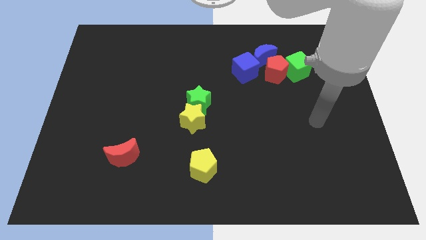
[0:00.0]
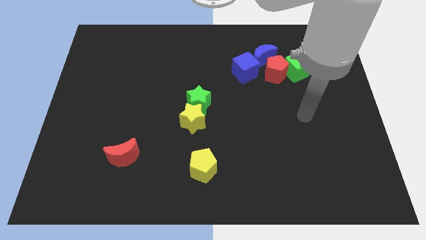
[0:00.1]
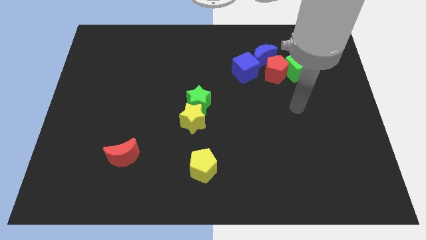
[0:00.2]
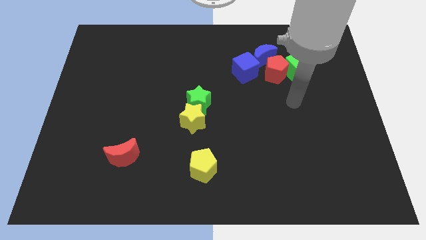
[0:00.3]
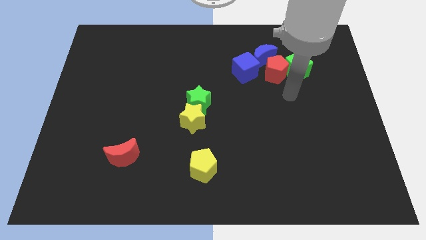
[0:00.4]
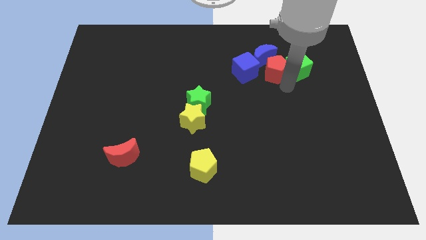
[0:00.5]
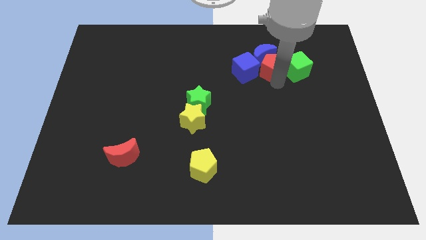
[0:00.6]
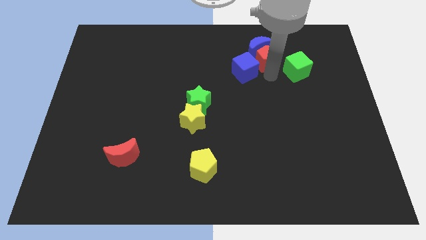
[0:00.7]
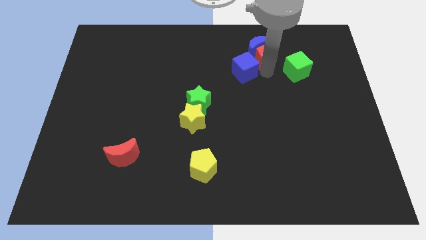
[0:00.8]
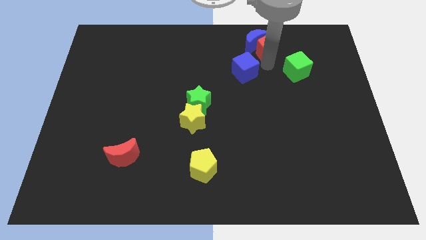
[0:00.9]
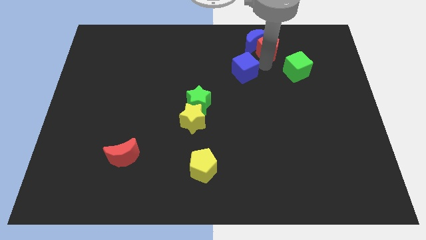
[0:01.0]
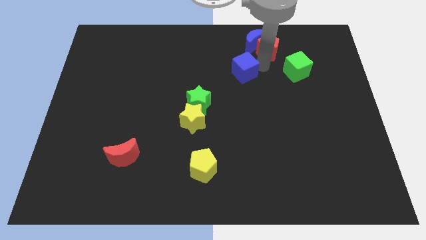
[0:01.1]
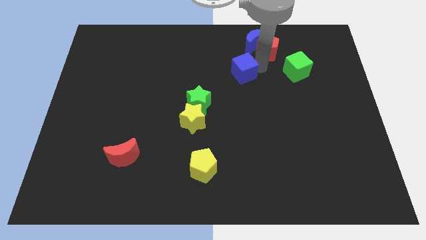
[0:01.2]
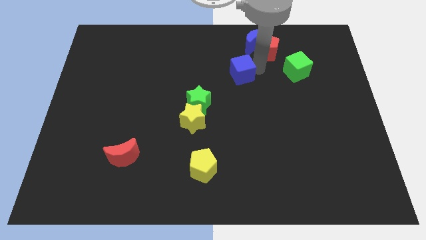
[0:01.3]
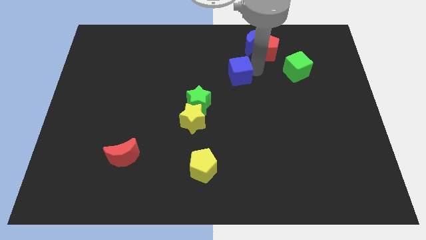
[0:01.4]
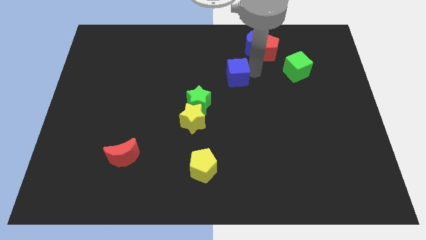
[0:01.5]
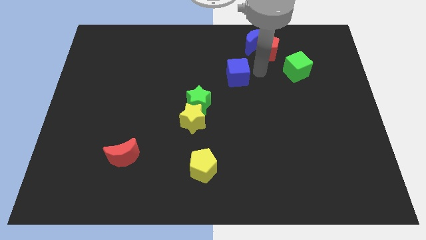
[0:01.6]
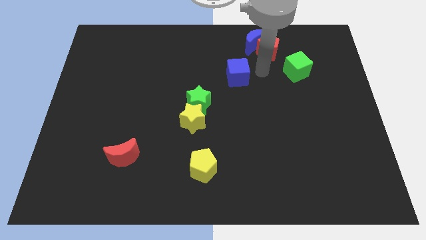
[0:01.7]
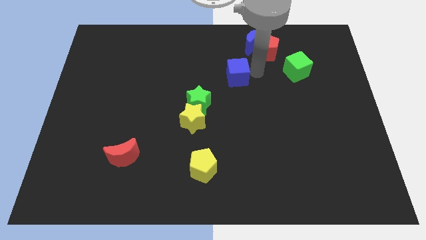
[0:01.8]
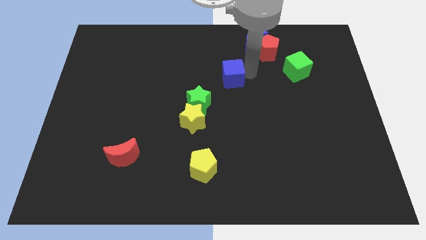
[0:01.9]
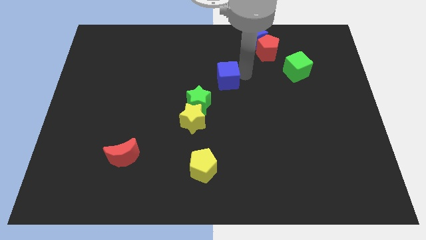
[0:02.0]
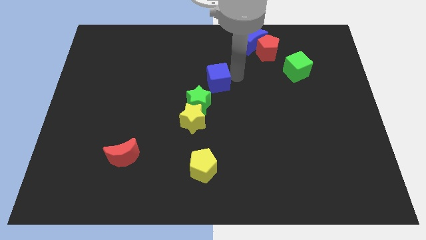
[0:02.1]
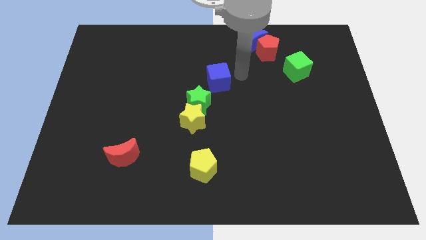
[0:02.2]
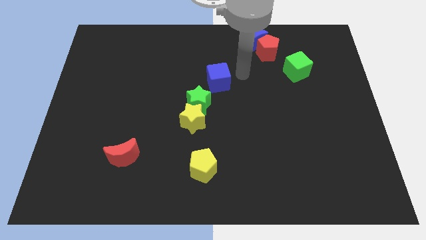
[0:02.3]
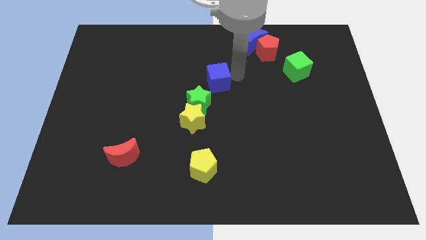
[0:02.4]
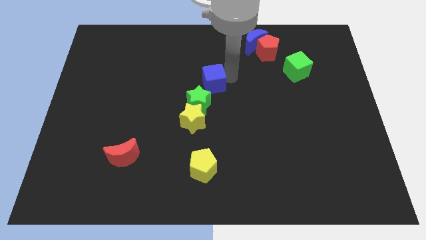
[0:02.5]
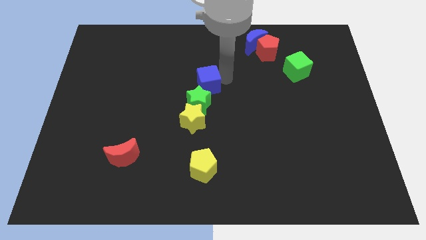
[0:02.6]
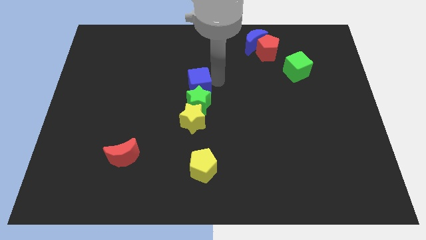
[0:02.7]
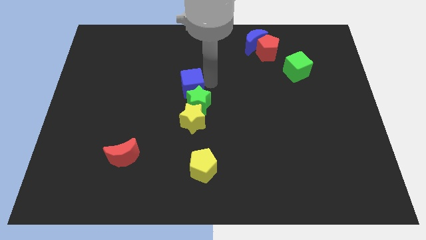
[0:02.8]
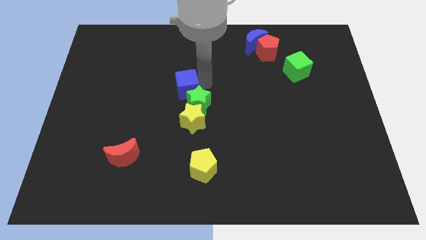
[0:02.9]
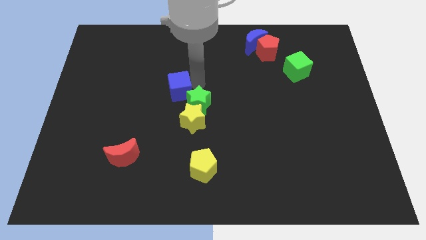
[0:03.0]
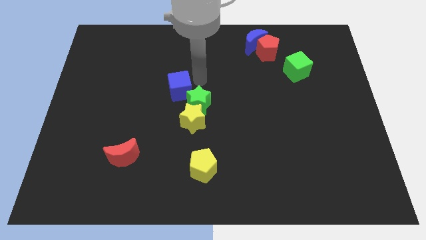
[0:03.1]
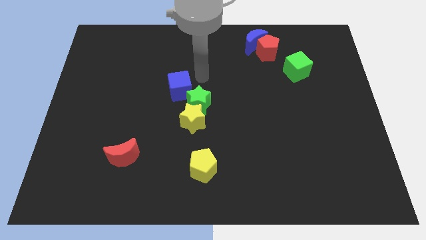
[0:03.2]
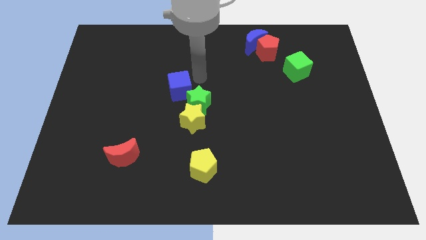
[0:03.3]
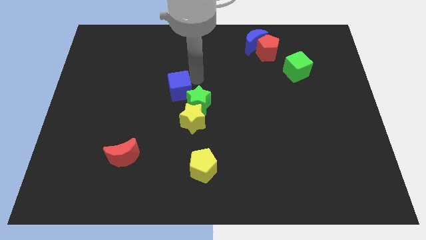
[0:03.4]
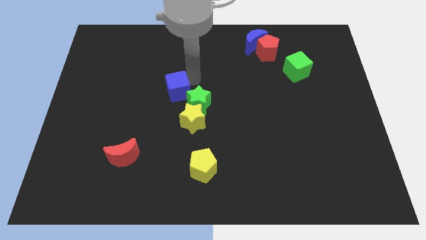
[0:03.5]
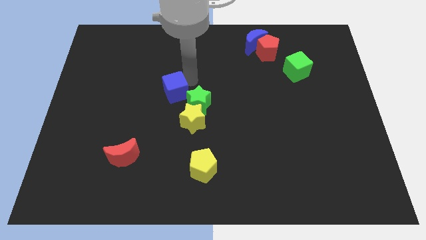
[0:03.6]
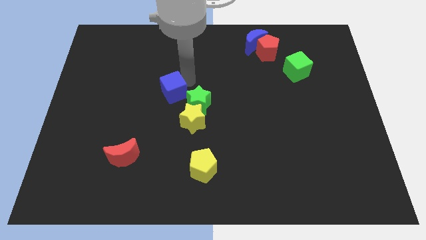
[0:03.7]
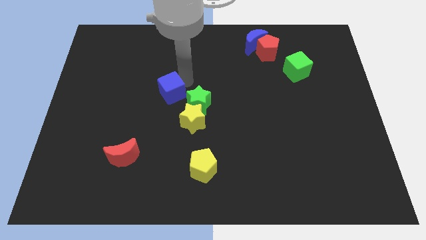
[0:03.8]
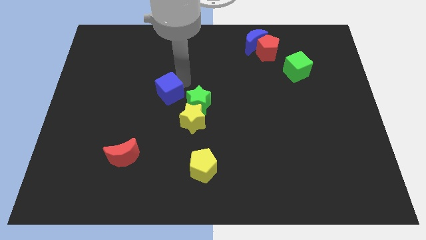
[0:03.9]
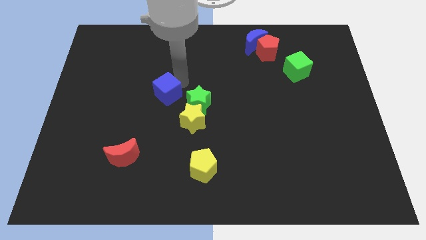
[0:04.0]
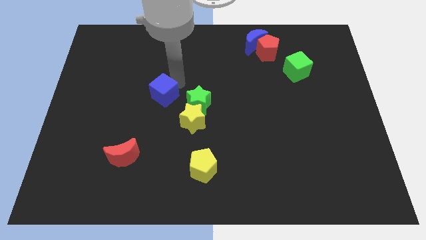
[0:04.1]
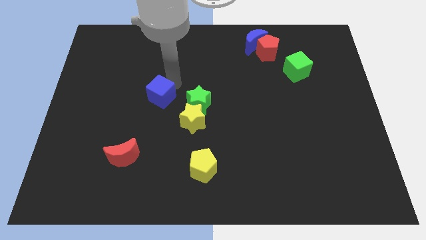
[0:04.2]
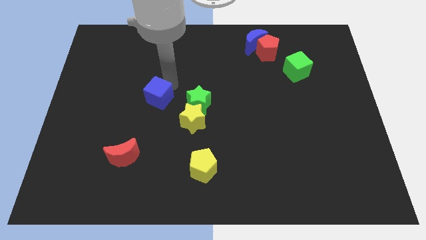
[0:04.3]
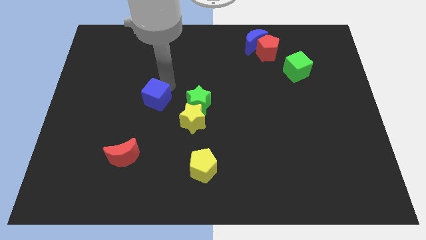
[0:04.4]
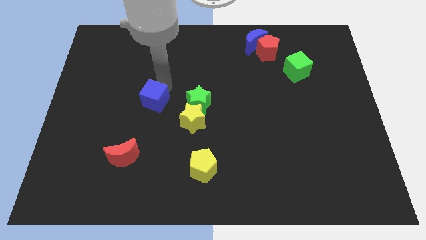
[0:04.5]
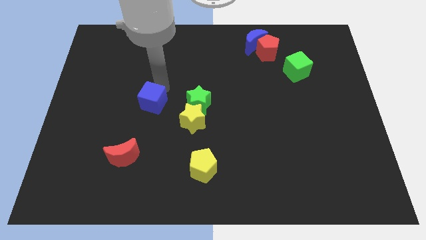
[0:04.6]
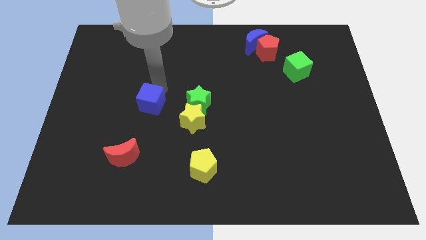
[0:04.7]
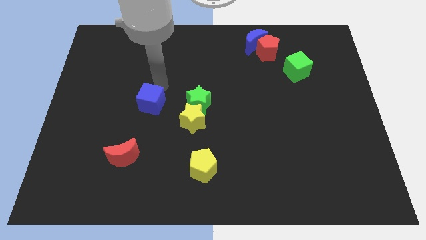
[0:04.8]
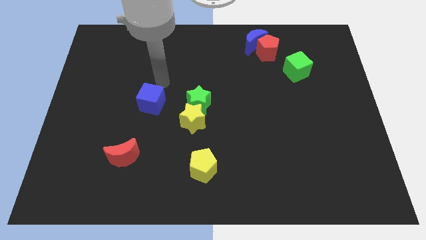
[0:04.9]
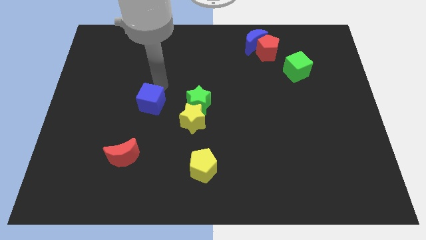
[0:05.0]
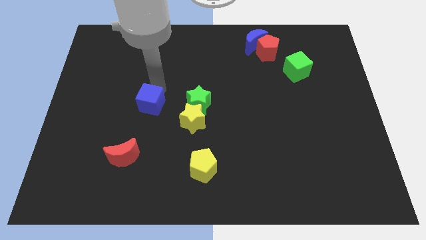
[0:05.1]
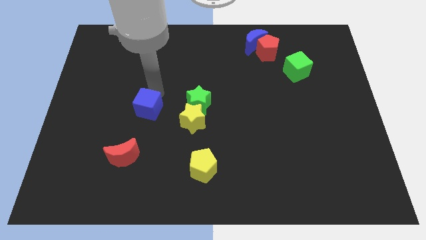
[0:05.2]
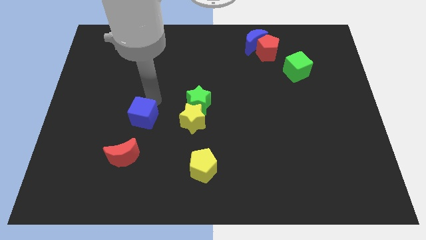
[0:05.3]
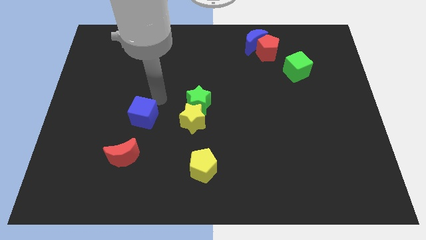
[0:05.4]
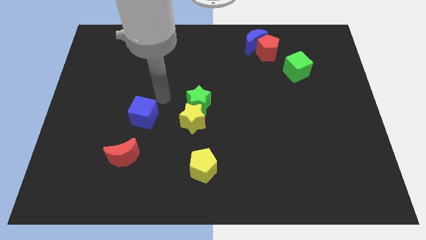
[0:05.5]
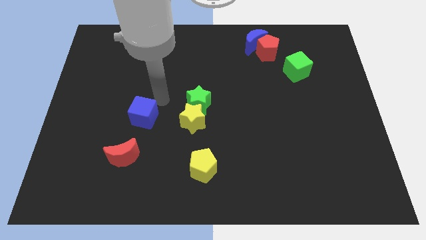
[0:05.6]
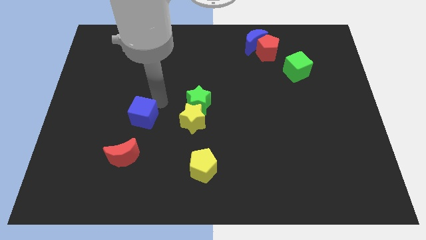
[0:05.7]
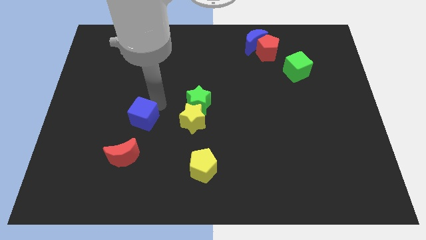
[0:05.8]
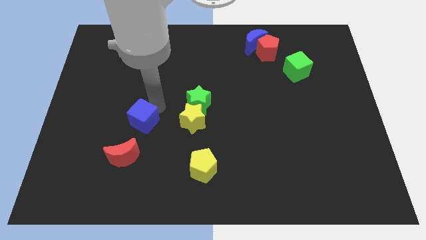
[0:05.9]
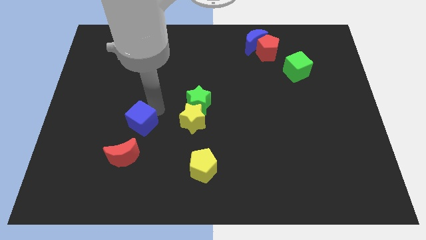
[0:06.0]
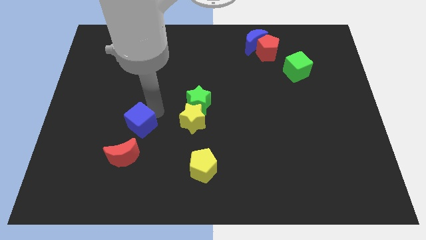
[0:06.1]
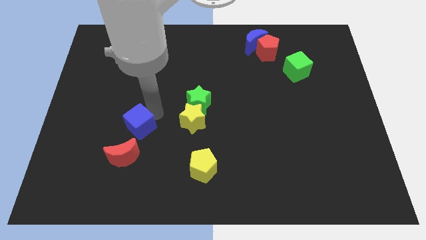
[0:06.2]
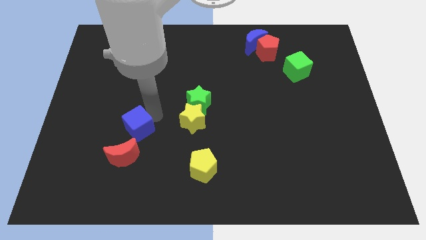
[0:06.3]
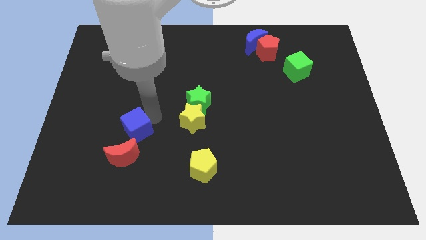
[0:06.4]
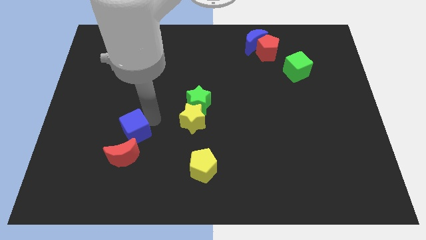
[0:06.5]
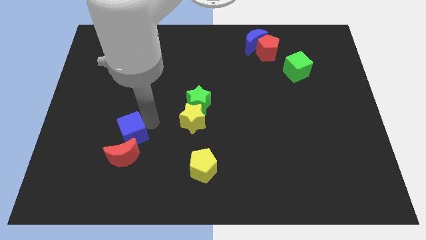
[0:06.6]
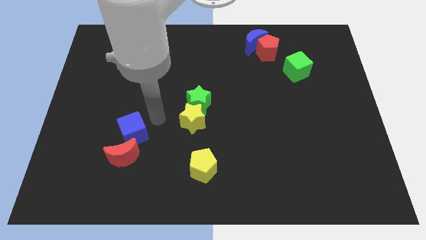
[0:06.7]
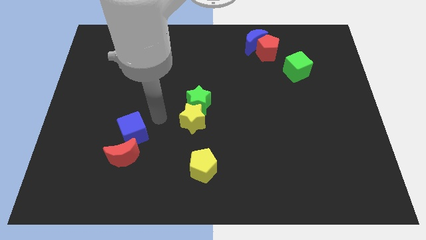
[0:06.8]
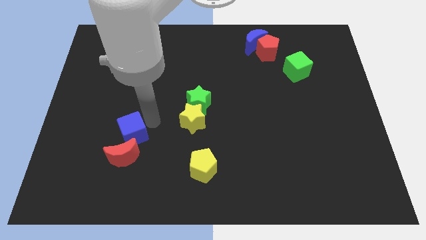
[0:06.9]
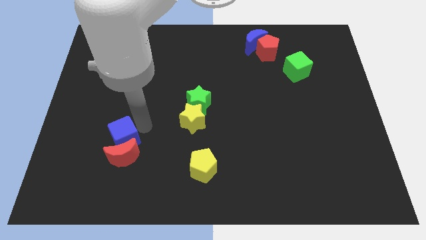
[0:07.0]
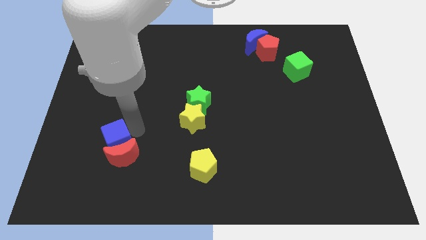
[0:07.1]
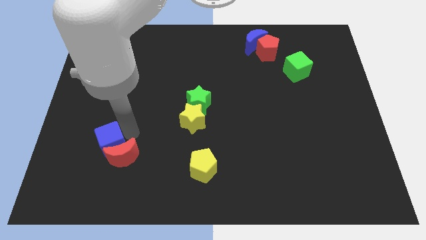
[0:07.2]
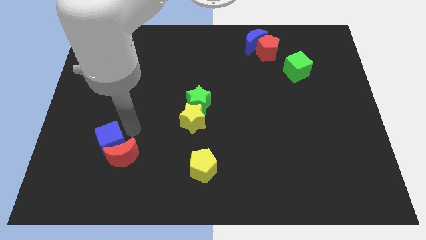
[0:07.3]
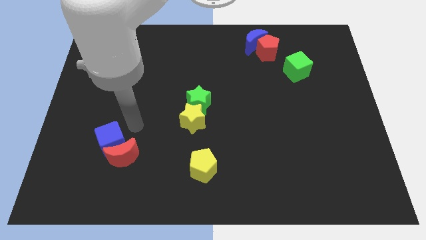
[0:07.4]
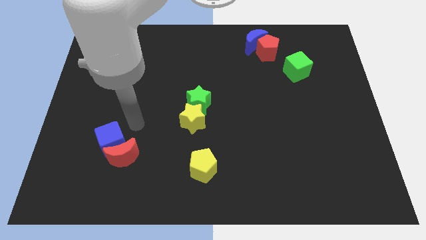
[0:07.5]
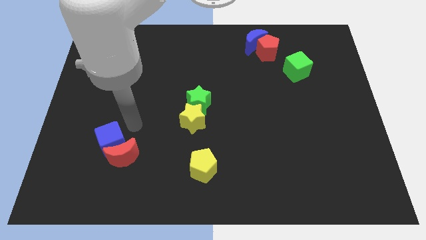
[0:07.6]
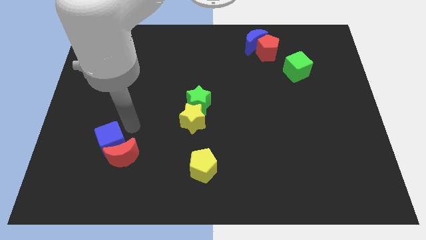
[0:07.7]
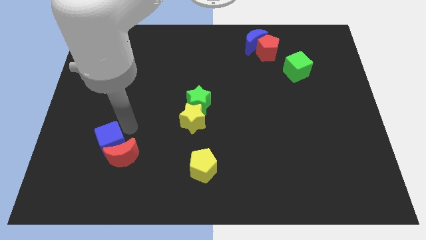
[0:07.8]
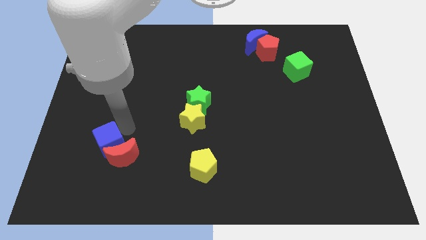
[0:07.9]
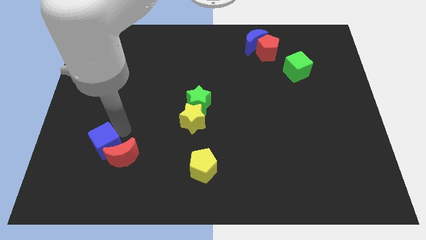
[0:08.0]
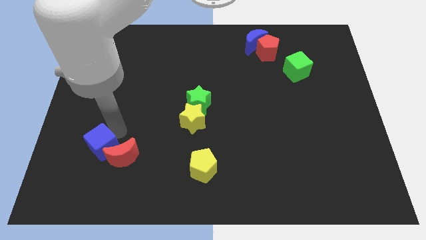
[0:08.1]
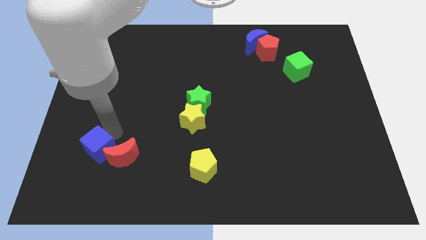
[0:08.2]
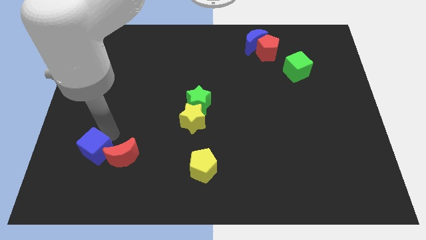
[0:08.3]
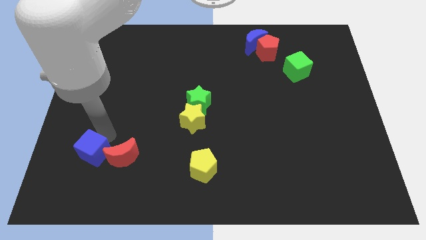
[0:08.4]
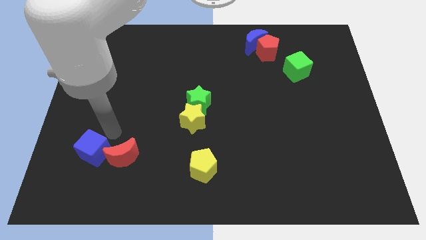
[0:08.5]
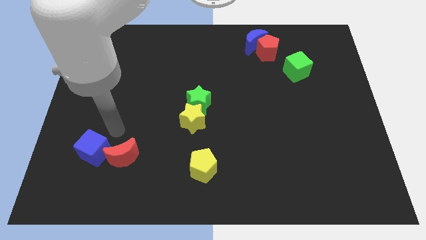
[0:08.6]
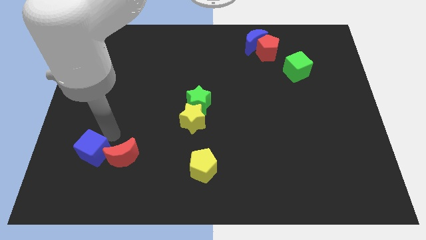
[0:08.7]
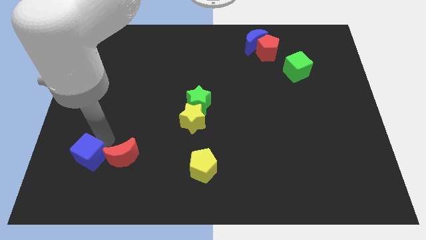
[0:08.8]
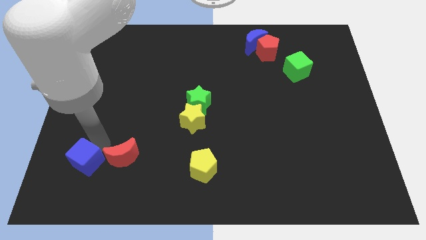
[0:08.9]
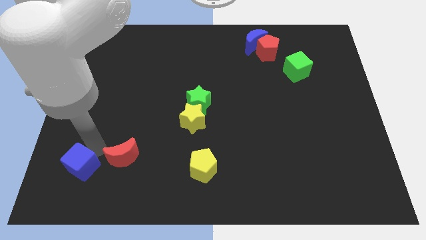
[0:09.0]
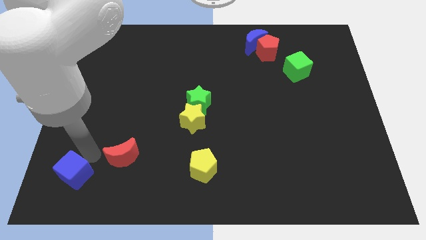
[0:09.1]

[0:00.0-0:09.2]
push the blue cube to the bottom left corner
